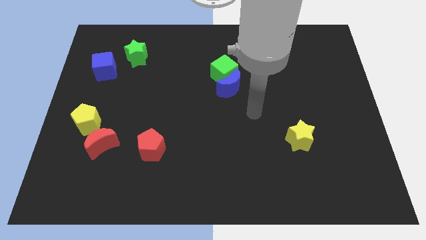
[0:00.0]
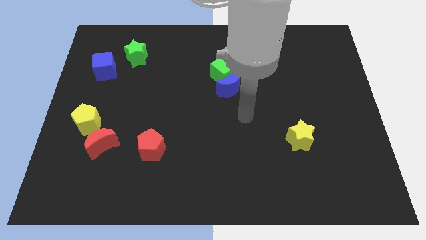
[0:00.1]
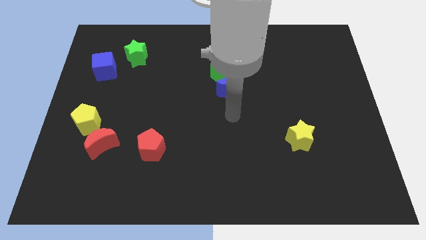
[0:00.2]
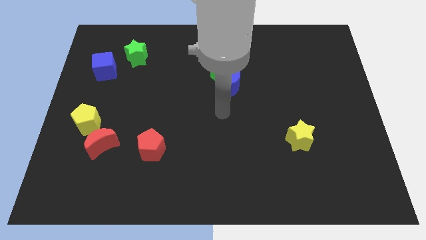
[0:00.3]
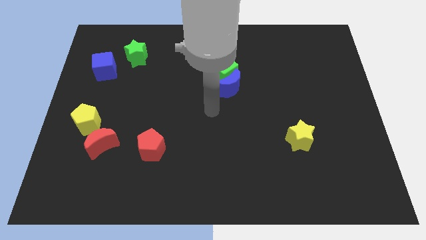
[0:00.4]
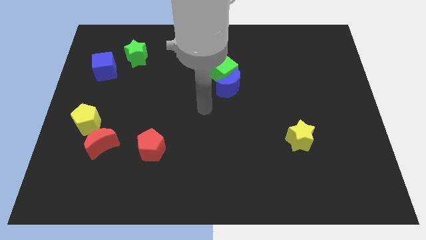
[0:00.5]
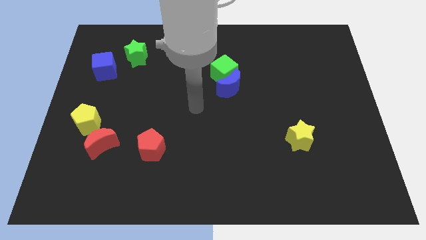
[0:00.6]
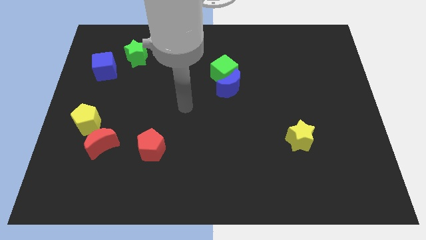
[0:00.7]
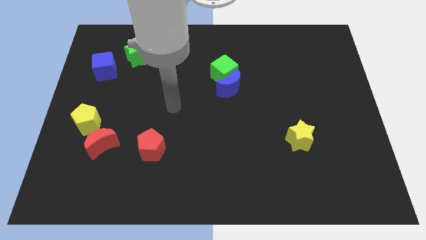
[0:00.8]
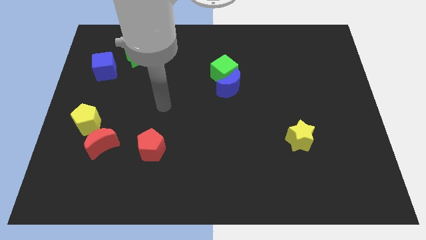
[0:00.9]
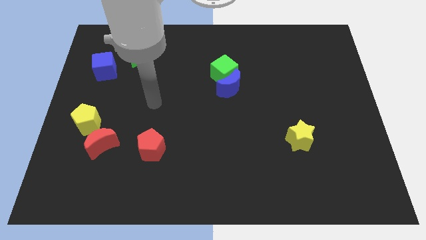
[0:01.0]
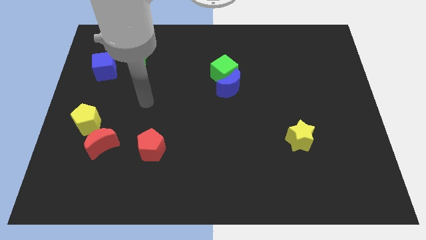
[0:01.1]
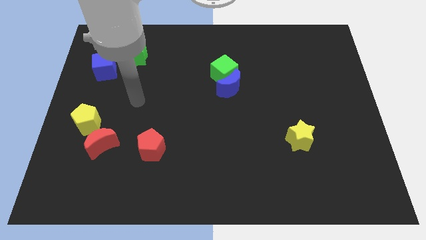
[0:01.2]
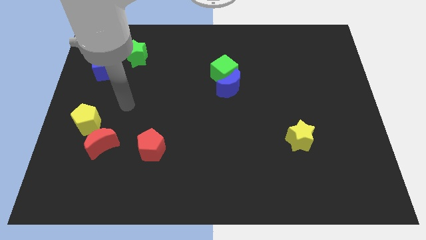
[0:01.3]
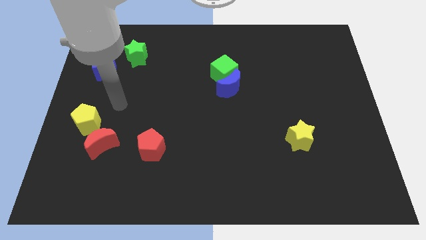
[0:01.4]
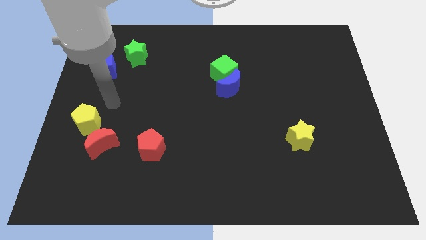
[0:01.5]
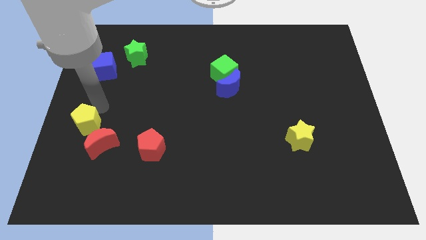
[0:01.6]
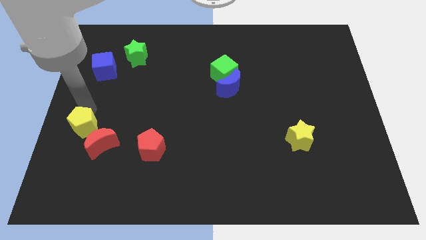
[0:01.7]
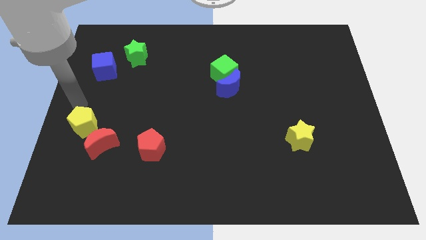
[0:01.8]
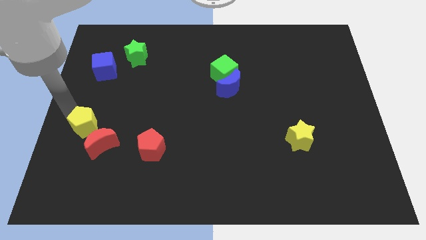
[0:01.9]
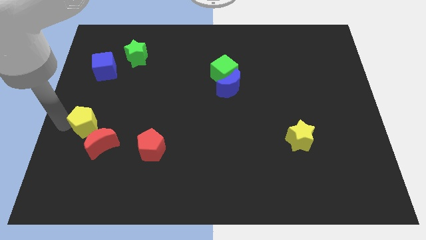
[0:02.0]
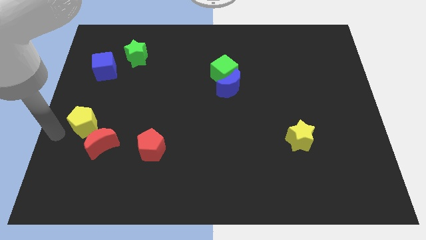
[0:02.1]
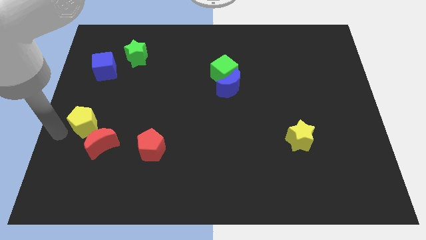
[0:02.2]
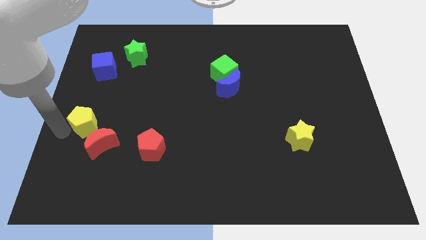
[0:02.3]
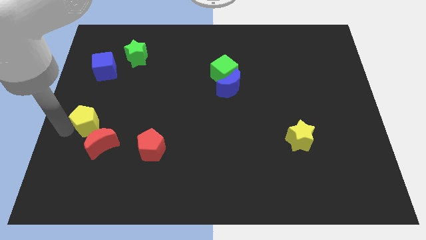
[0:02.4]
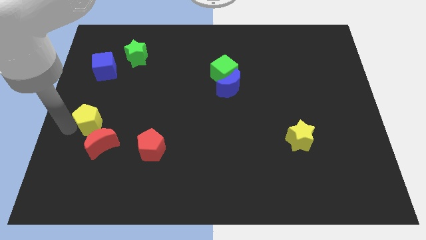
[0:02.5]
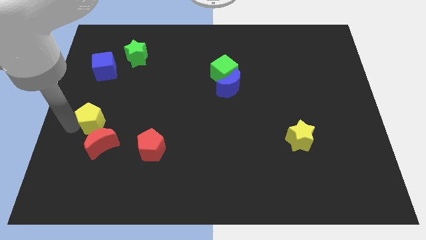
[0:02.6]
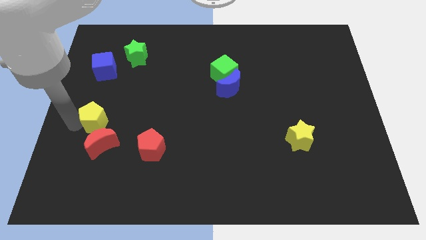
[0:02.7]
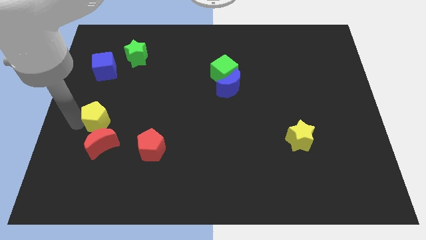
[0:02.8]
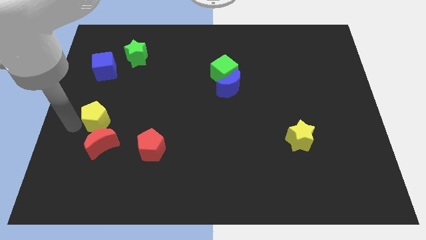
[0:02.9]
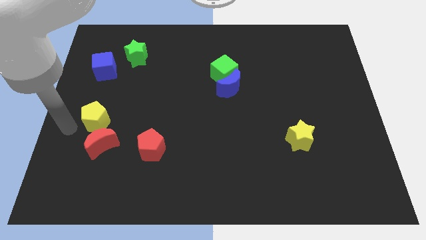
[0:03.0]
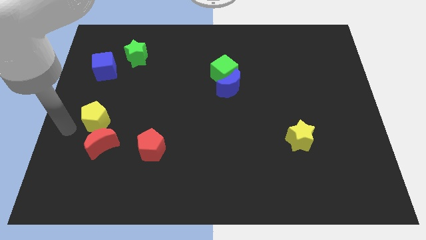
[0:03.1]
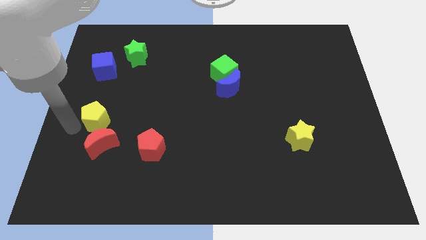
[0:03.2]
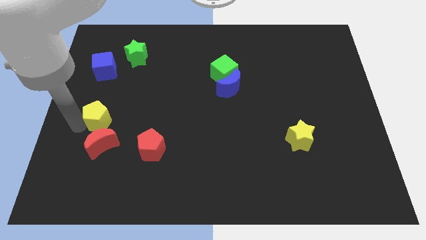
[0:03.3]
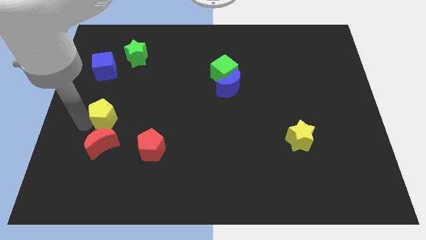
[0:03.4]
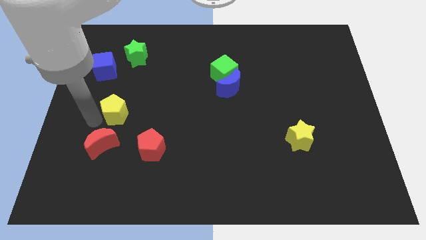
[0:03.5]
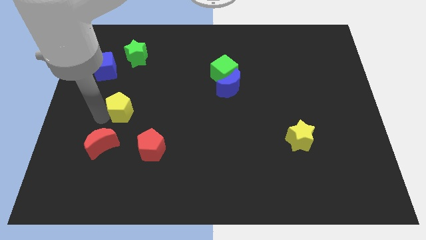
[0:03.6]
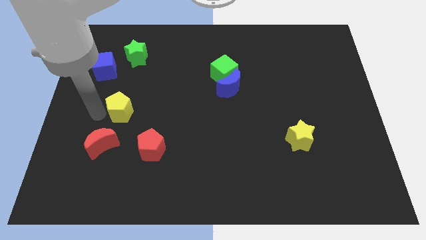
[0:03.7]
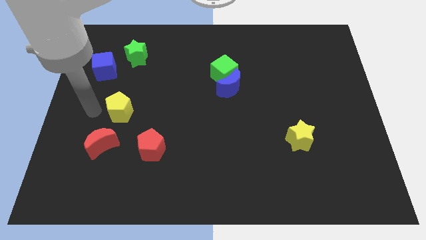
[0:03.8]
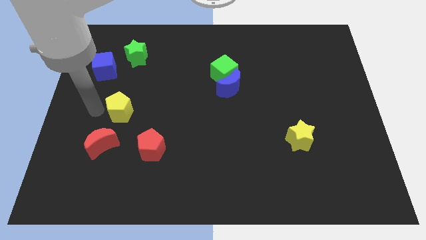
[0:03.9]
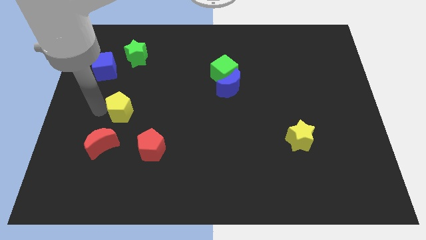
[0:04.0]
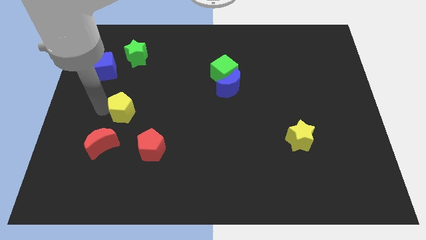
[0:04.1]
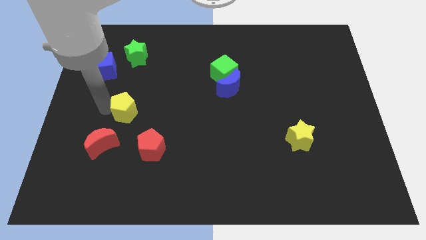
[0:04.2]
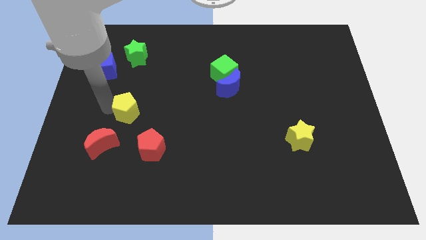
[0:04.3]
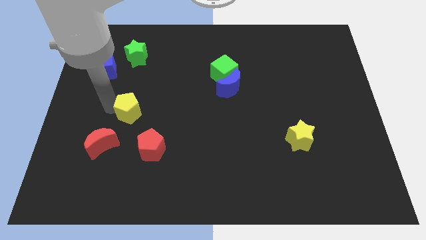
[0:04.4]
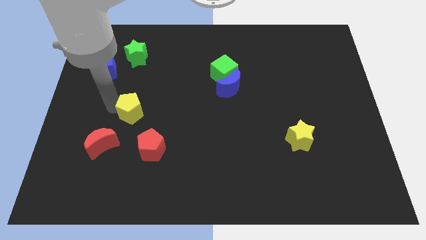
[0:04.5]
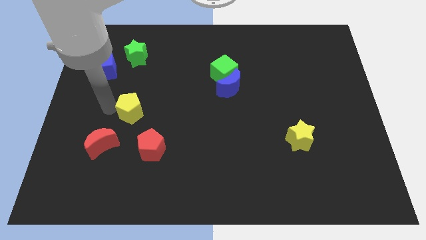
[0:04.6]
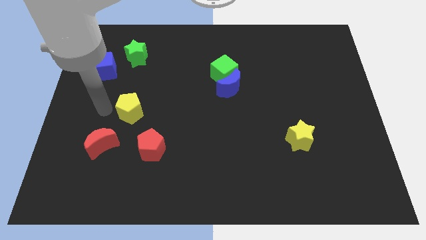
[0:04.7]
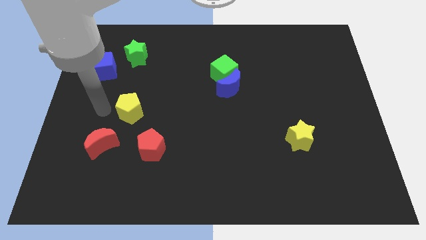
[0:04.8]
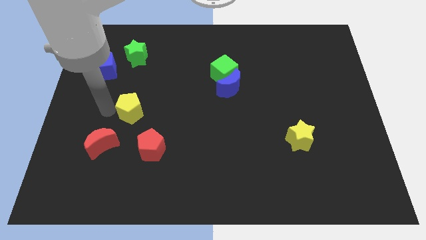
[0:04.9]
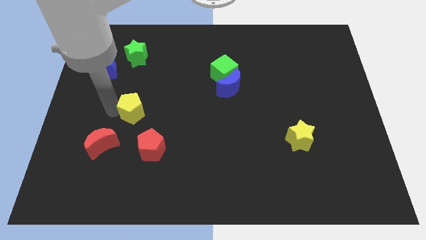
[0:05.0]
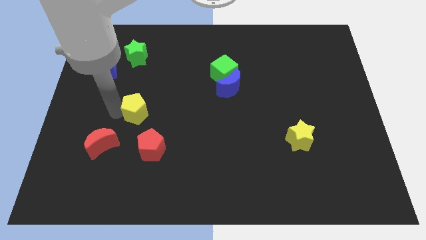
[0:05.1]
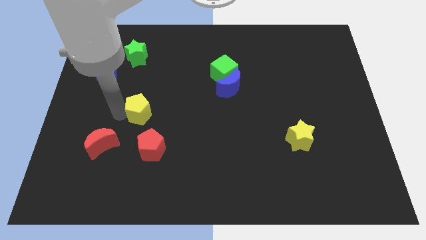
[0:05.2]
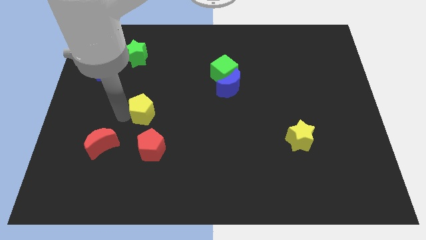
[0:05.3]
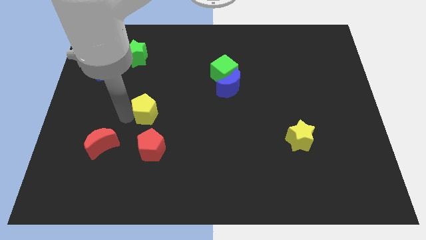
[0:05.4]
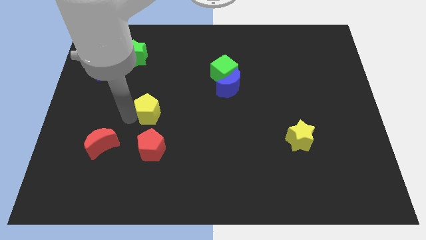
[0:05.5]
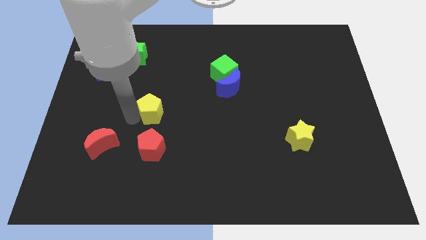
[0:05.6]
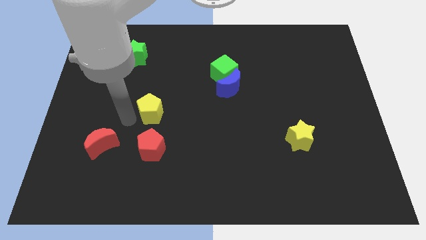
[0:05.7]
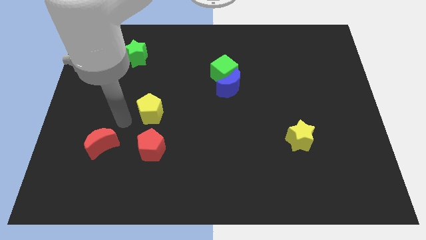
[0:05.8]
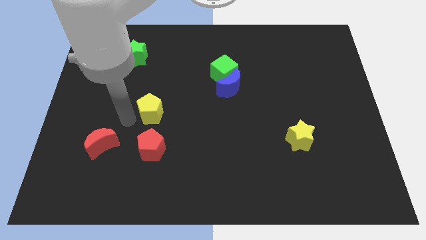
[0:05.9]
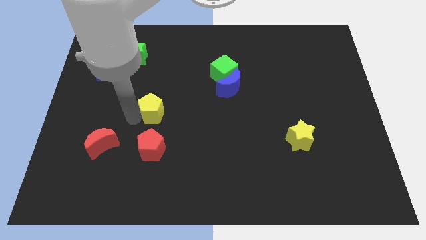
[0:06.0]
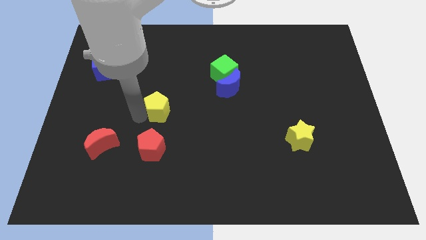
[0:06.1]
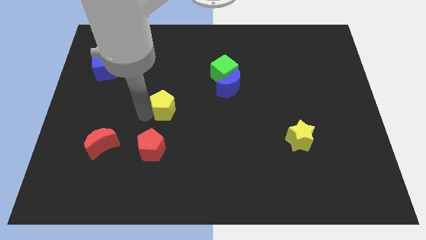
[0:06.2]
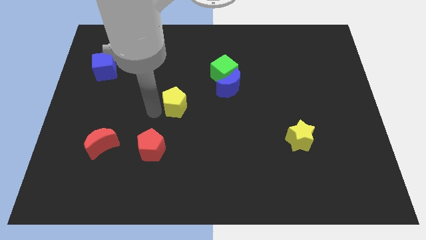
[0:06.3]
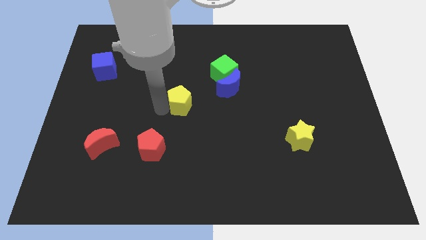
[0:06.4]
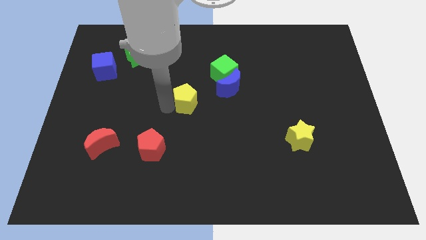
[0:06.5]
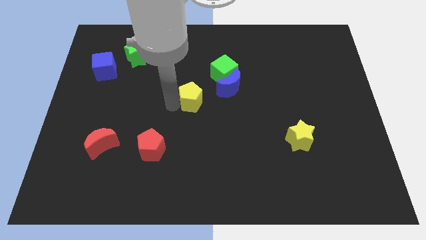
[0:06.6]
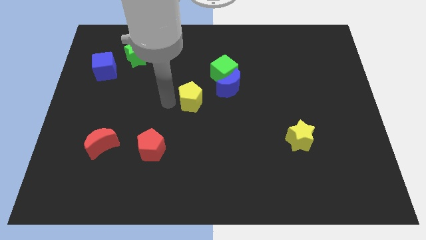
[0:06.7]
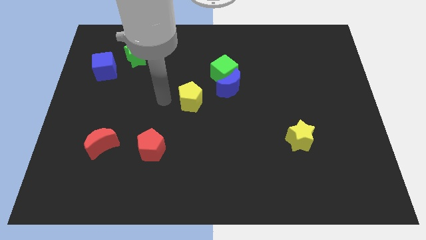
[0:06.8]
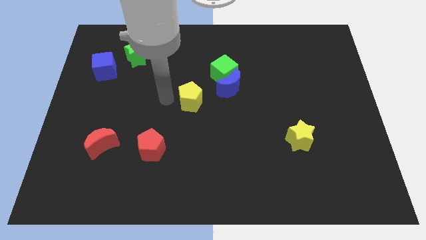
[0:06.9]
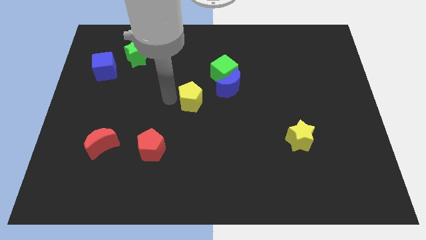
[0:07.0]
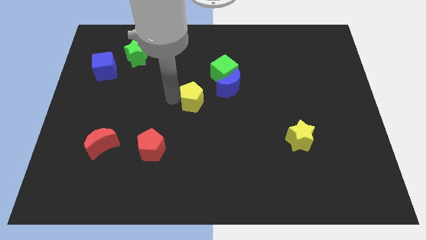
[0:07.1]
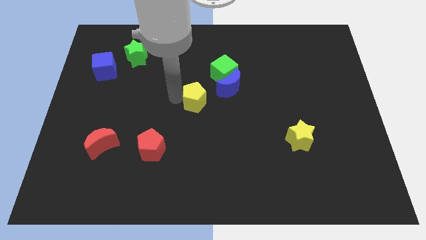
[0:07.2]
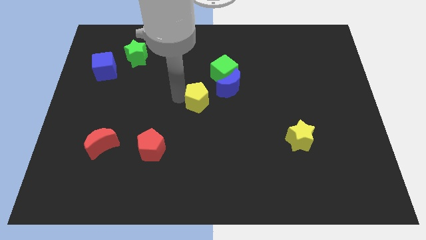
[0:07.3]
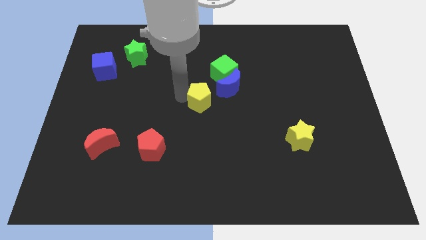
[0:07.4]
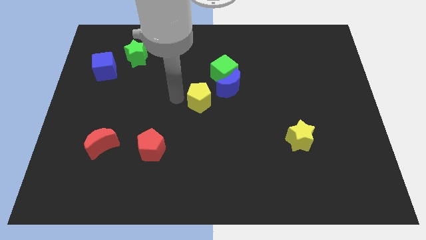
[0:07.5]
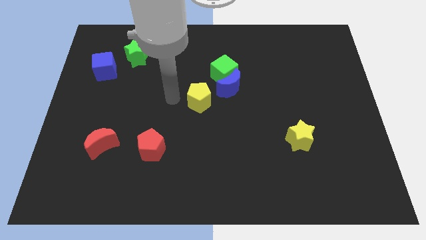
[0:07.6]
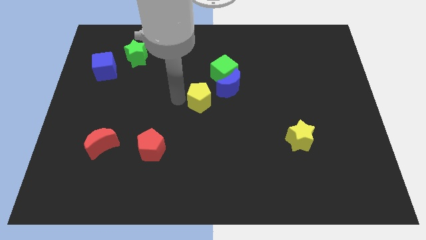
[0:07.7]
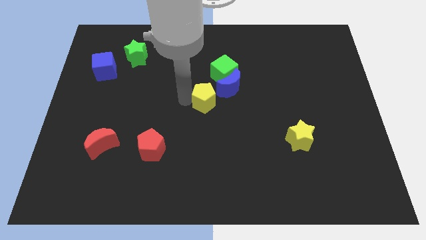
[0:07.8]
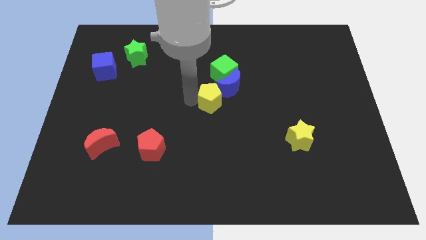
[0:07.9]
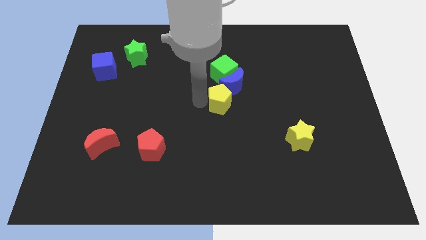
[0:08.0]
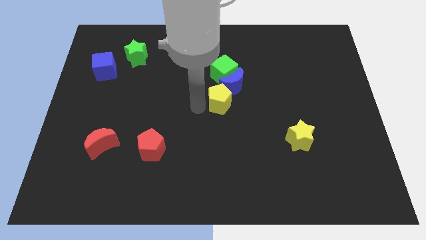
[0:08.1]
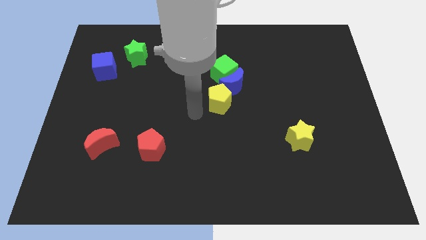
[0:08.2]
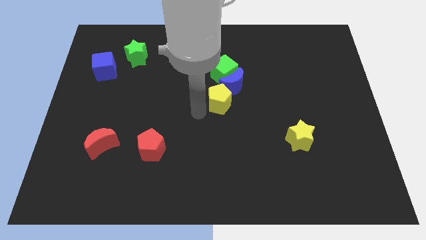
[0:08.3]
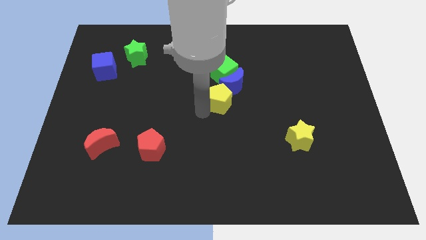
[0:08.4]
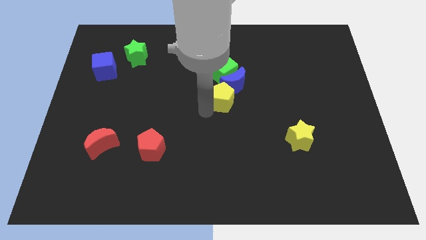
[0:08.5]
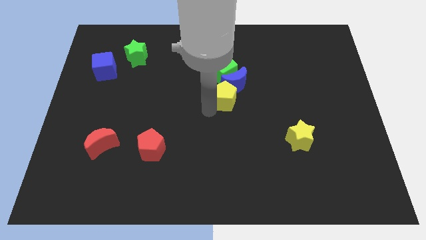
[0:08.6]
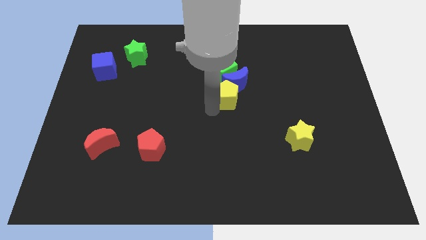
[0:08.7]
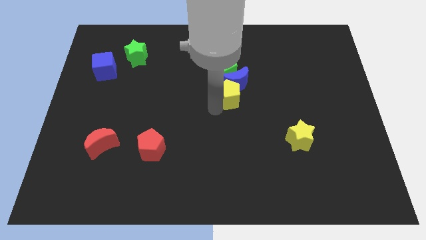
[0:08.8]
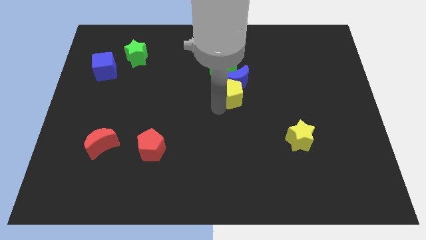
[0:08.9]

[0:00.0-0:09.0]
put the yellow pentagon diagonally down and to the right of the green cube
